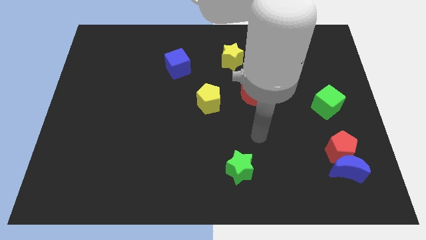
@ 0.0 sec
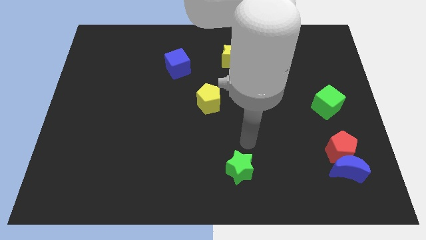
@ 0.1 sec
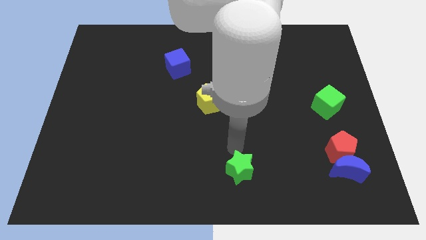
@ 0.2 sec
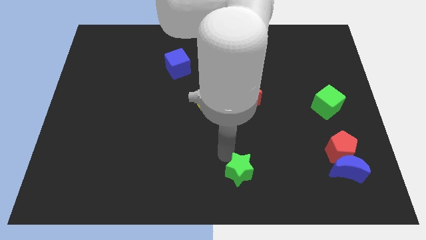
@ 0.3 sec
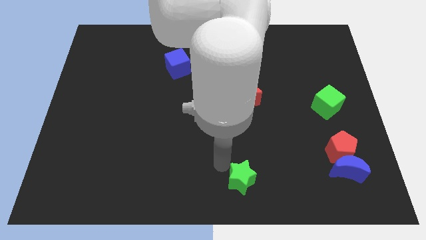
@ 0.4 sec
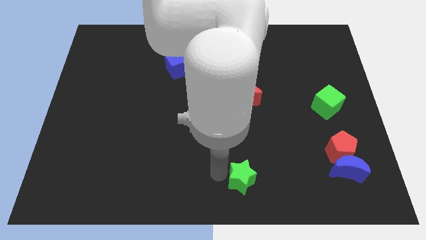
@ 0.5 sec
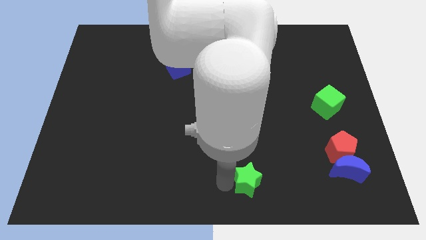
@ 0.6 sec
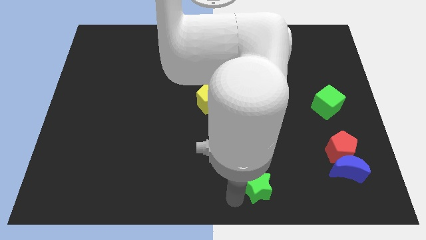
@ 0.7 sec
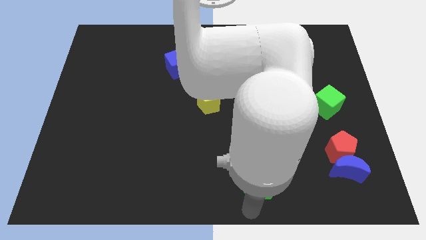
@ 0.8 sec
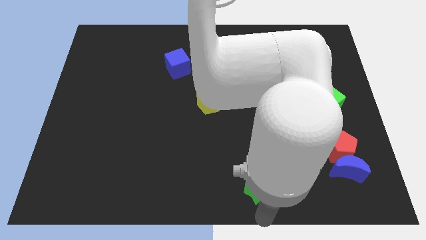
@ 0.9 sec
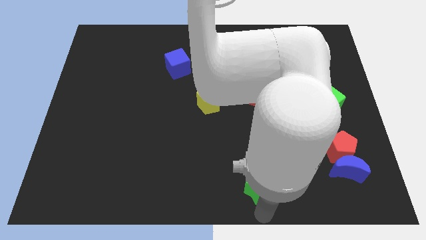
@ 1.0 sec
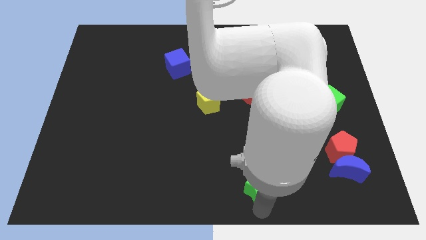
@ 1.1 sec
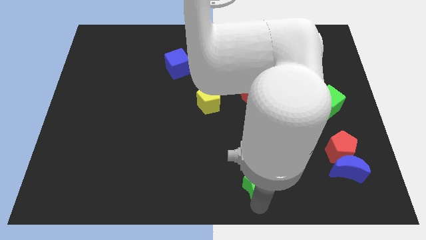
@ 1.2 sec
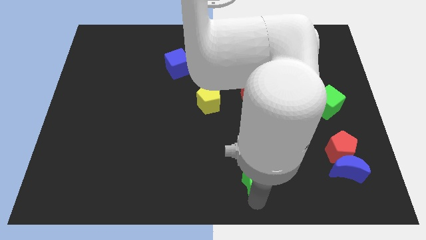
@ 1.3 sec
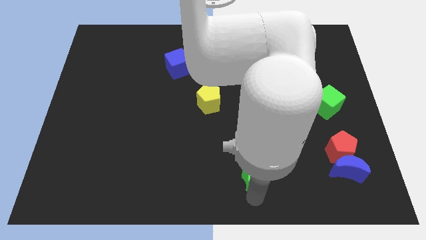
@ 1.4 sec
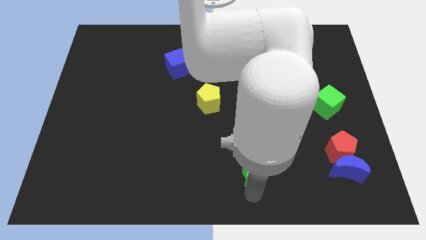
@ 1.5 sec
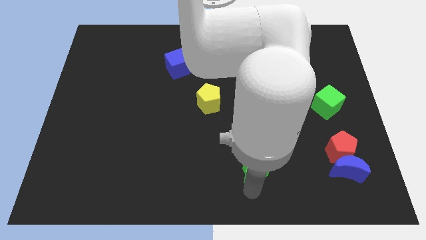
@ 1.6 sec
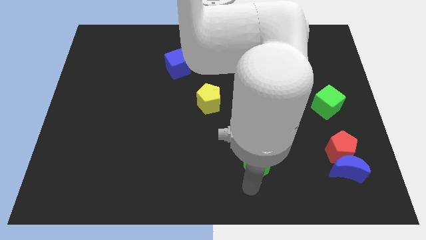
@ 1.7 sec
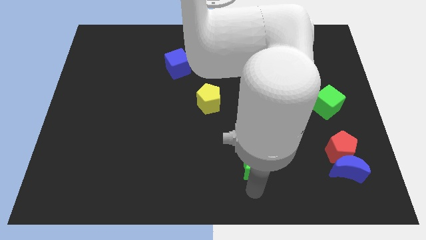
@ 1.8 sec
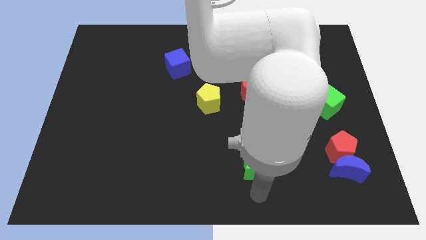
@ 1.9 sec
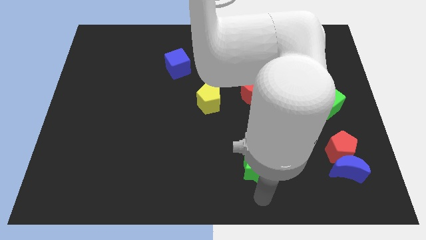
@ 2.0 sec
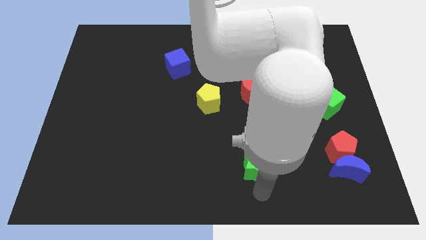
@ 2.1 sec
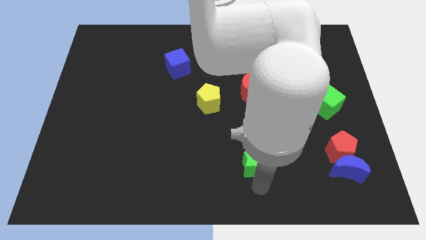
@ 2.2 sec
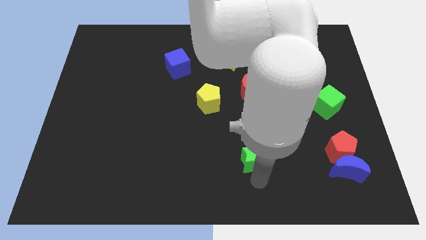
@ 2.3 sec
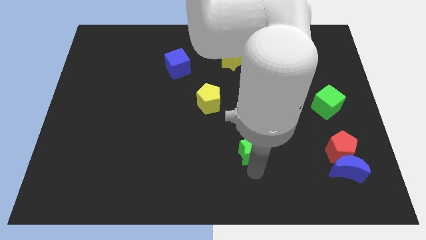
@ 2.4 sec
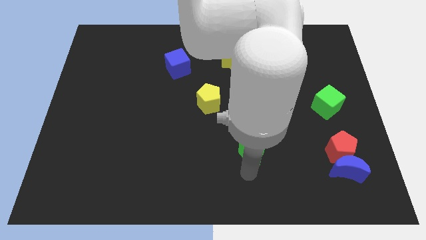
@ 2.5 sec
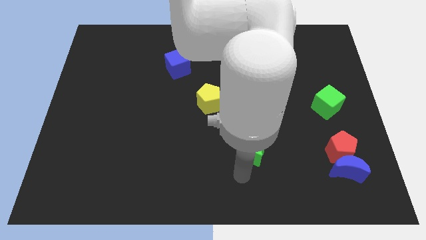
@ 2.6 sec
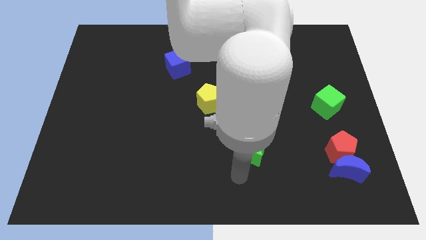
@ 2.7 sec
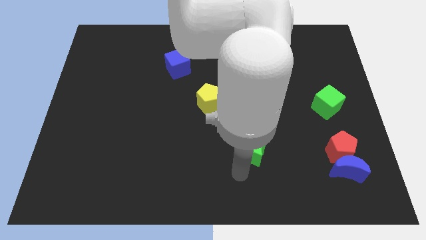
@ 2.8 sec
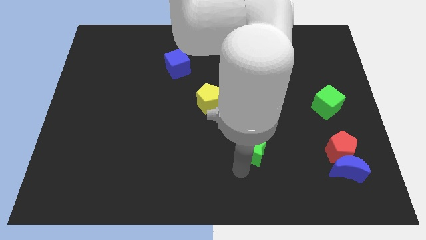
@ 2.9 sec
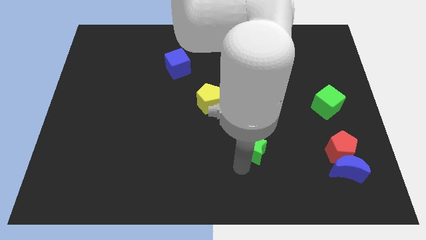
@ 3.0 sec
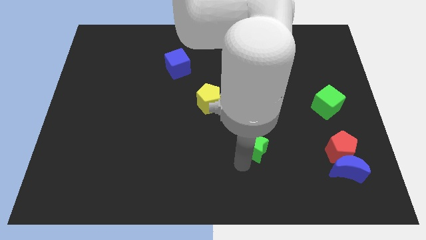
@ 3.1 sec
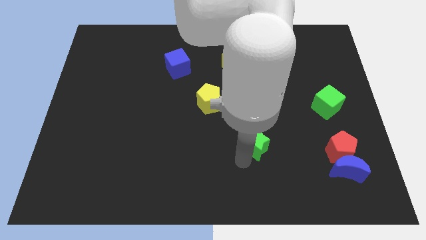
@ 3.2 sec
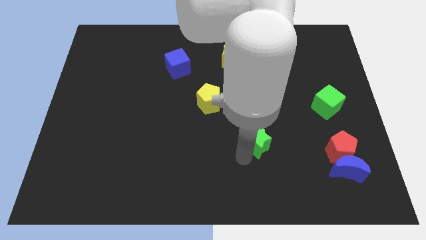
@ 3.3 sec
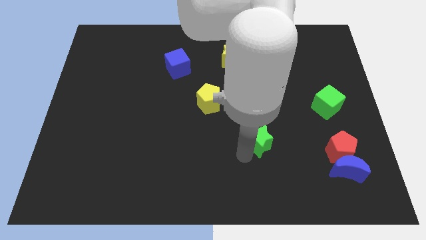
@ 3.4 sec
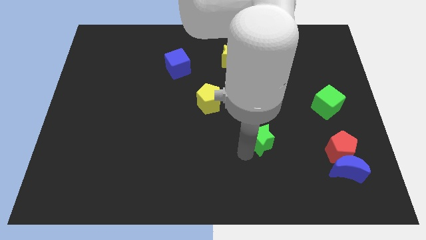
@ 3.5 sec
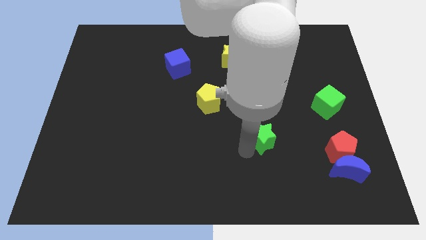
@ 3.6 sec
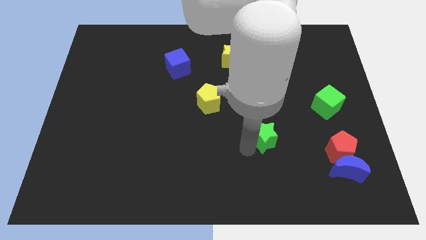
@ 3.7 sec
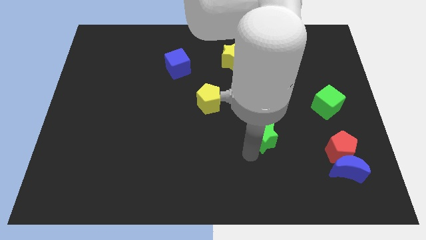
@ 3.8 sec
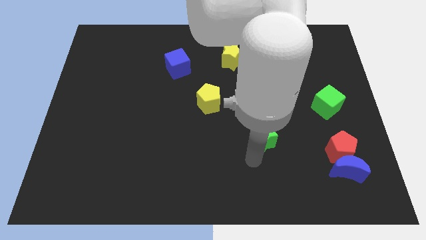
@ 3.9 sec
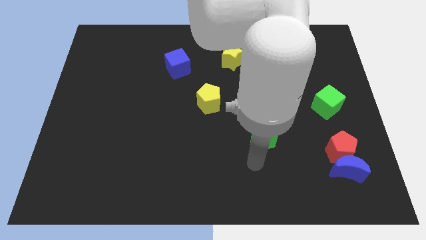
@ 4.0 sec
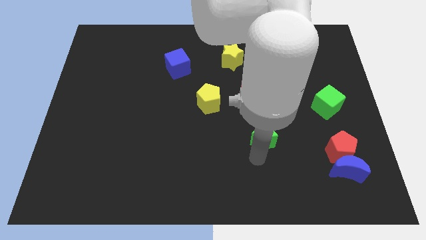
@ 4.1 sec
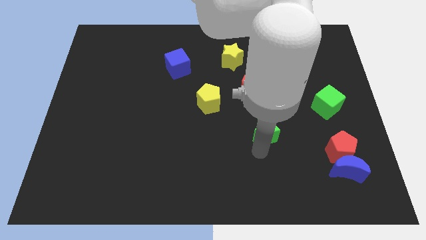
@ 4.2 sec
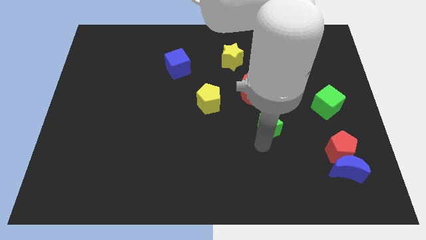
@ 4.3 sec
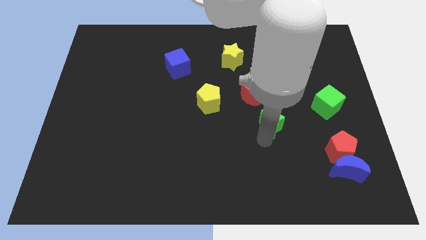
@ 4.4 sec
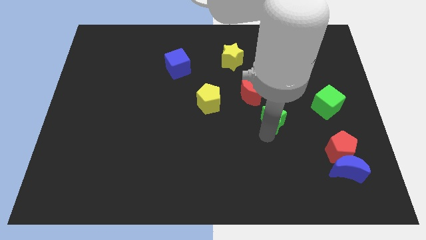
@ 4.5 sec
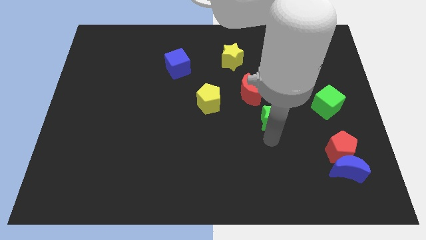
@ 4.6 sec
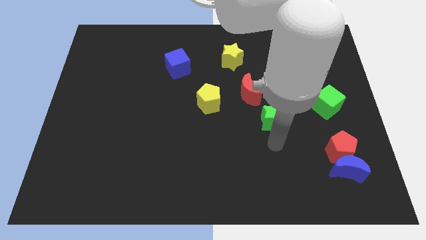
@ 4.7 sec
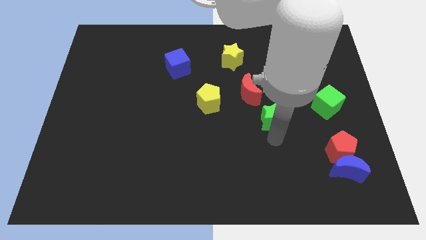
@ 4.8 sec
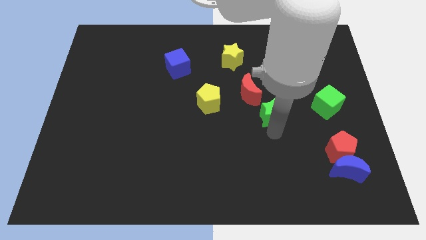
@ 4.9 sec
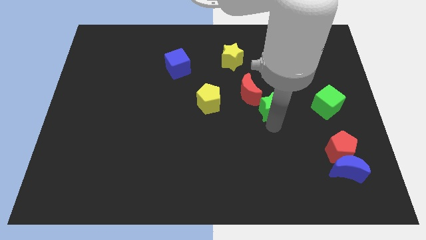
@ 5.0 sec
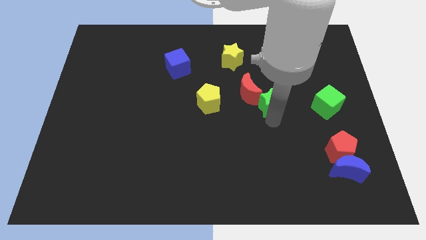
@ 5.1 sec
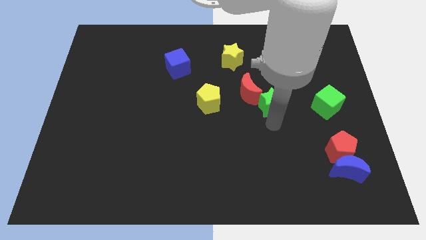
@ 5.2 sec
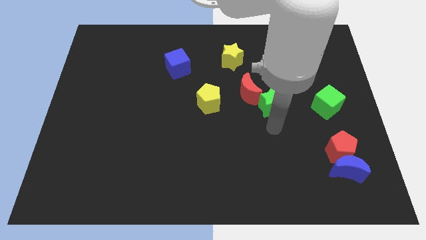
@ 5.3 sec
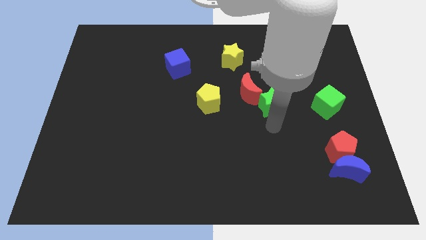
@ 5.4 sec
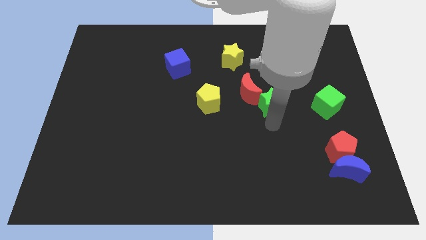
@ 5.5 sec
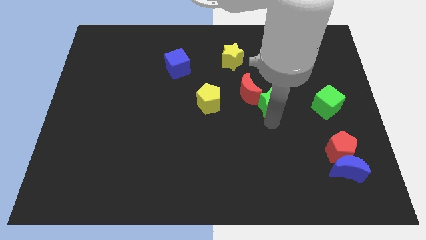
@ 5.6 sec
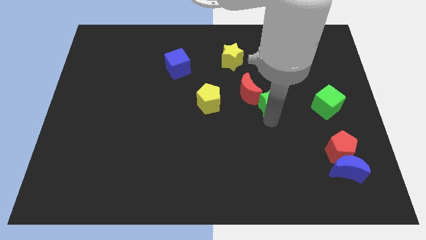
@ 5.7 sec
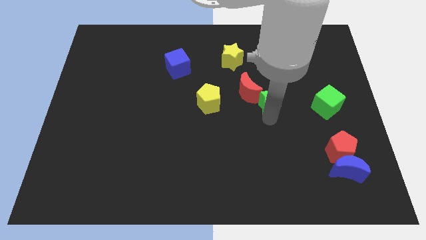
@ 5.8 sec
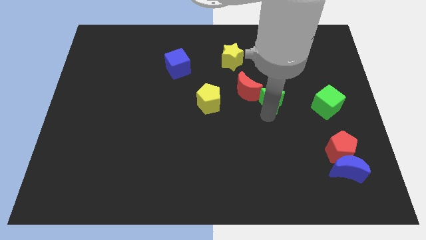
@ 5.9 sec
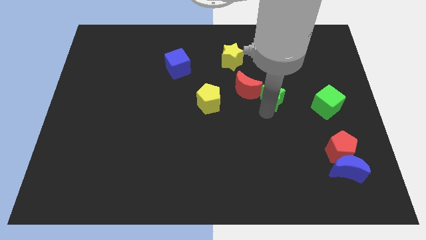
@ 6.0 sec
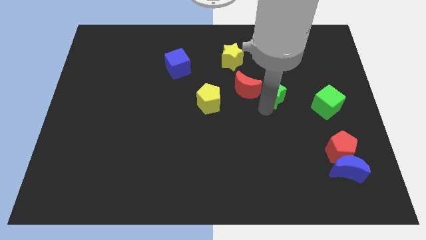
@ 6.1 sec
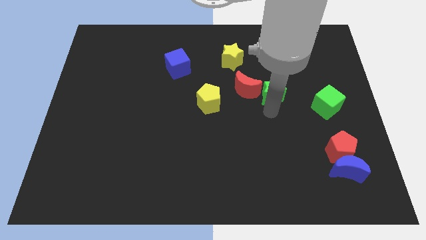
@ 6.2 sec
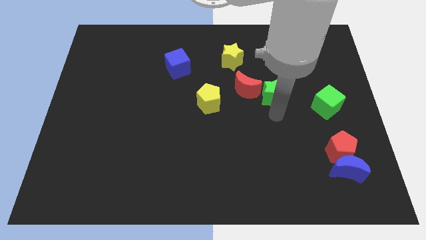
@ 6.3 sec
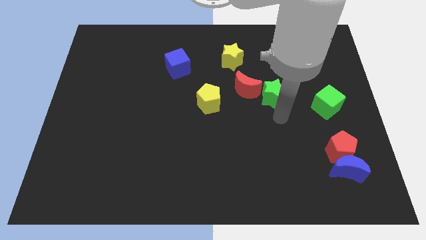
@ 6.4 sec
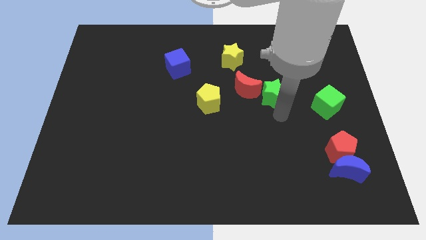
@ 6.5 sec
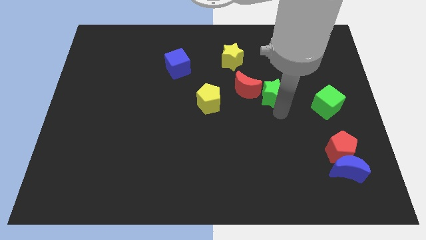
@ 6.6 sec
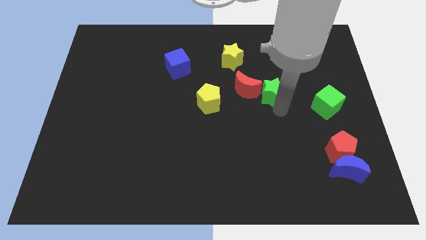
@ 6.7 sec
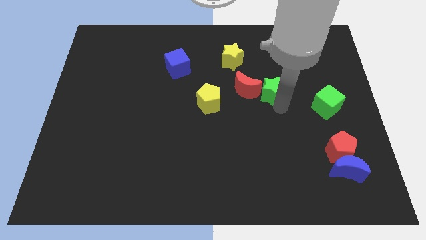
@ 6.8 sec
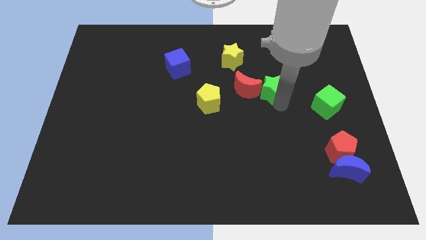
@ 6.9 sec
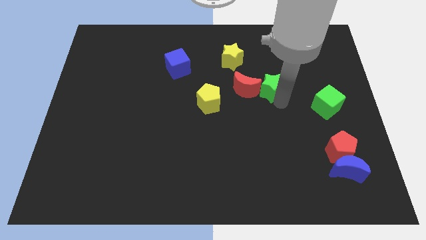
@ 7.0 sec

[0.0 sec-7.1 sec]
put the green star to the top right of the red moon
